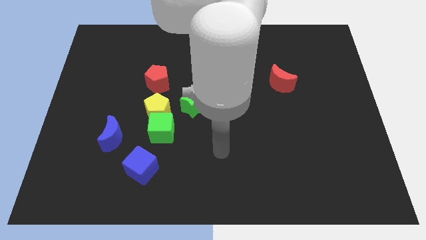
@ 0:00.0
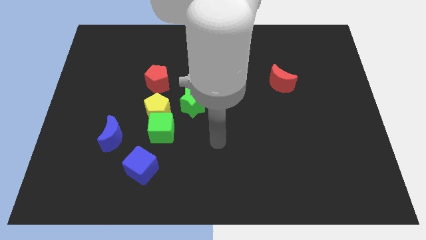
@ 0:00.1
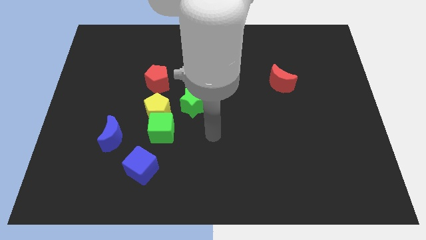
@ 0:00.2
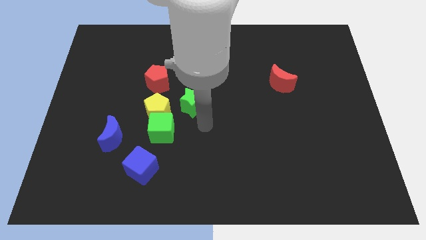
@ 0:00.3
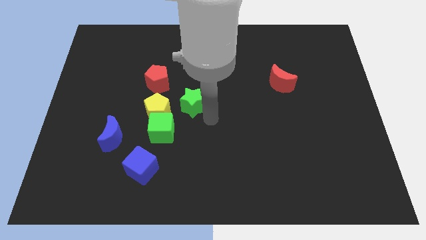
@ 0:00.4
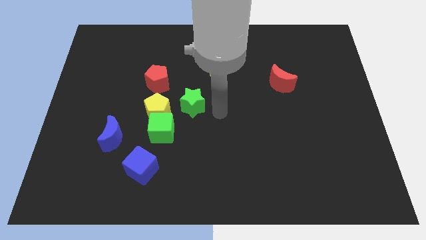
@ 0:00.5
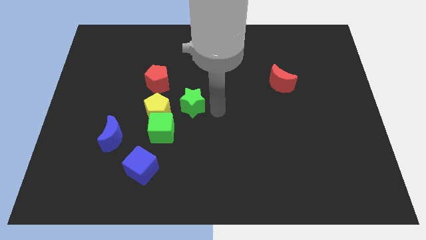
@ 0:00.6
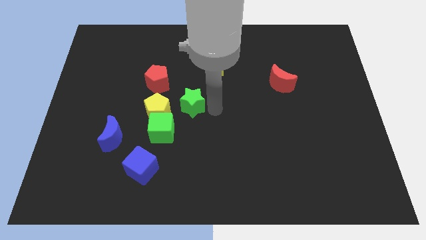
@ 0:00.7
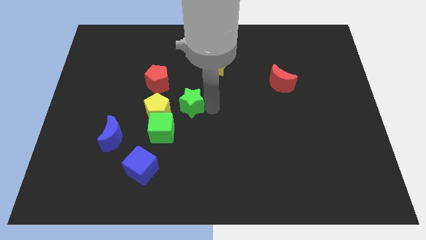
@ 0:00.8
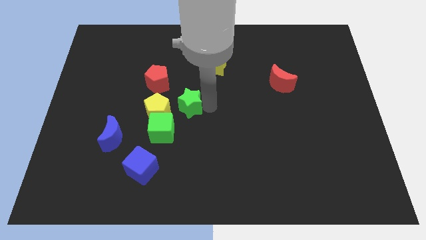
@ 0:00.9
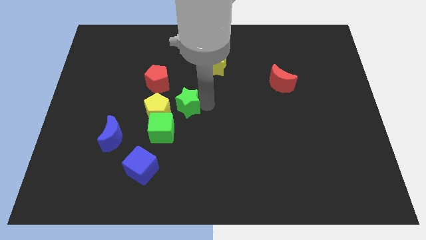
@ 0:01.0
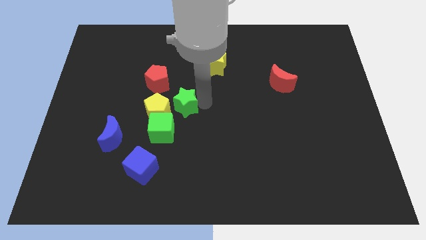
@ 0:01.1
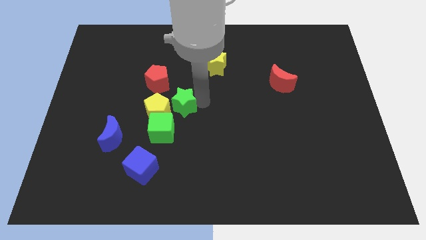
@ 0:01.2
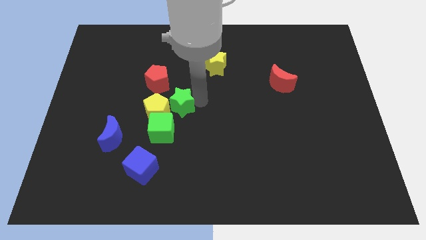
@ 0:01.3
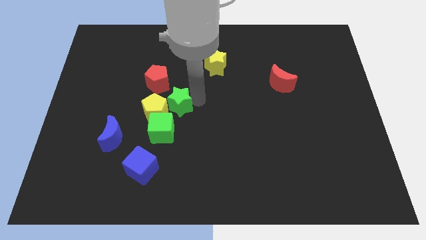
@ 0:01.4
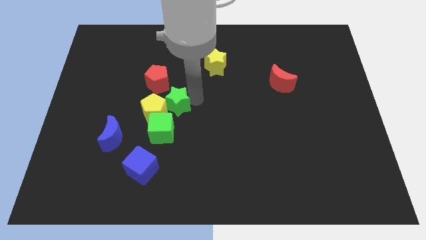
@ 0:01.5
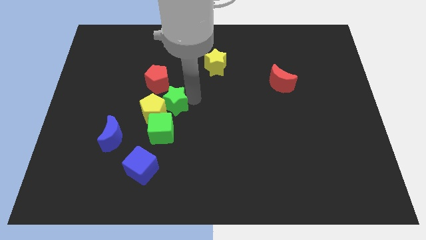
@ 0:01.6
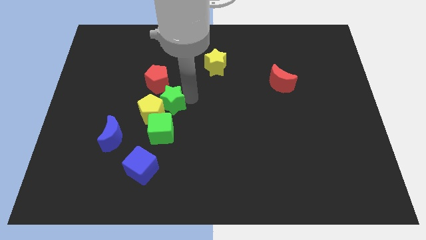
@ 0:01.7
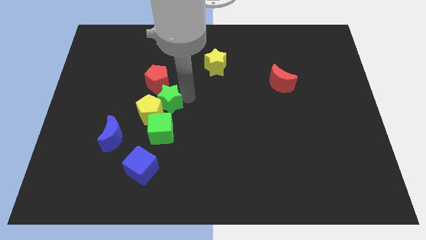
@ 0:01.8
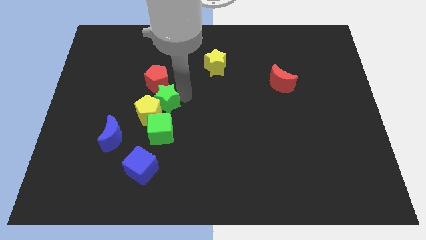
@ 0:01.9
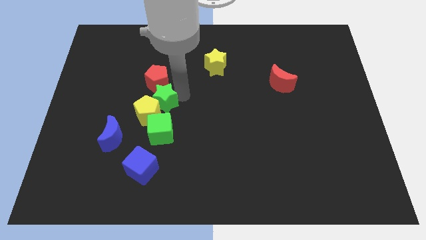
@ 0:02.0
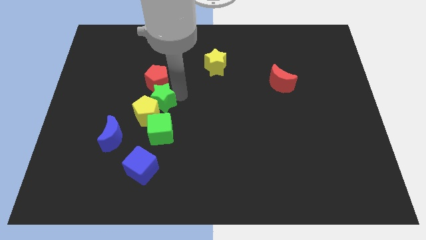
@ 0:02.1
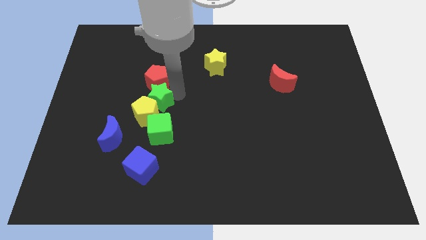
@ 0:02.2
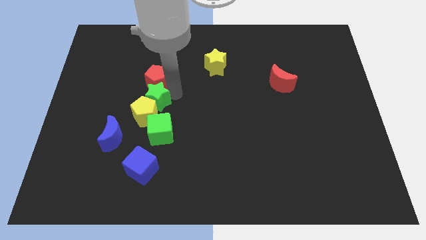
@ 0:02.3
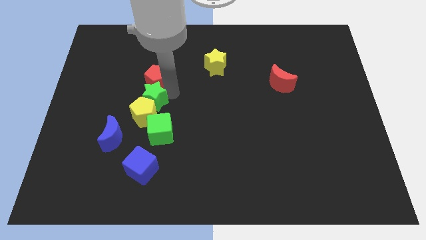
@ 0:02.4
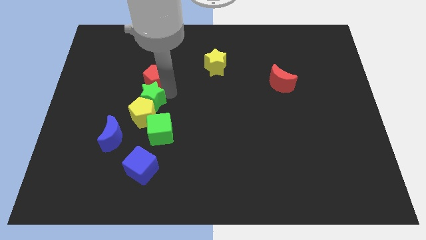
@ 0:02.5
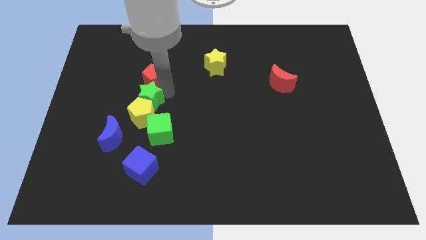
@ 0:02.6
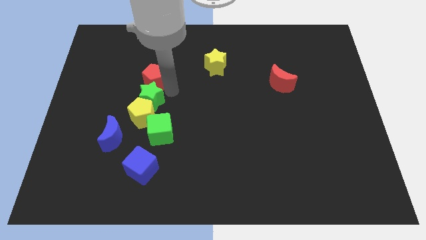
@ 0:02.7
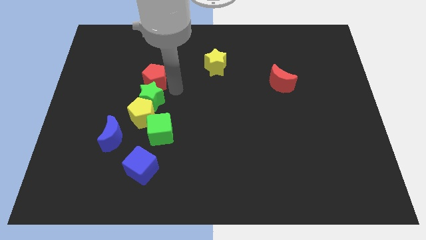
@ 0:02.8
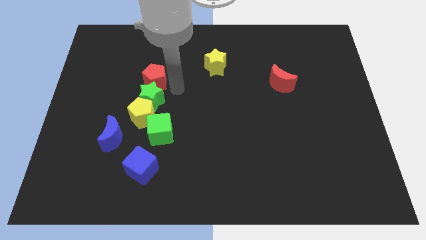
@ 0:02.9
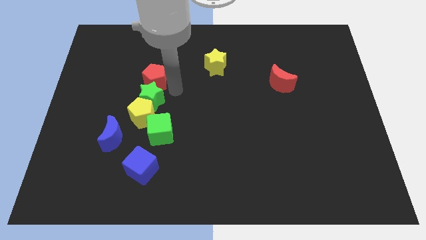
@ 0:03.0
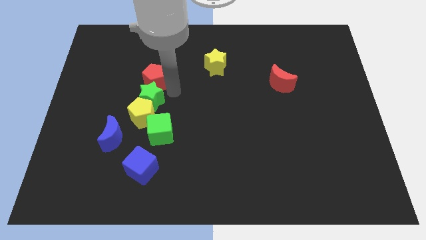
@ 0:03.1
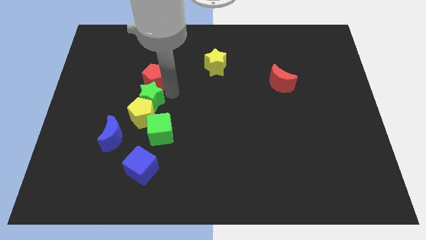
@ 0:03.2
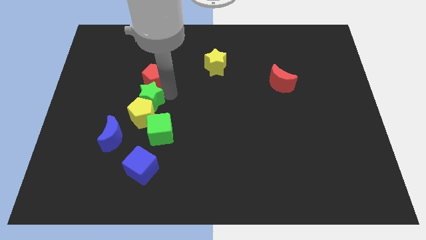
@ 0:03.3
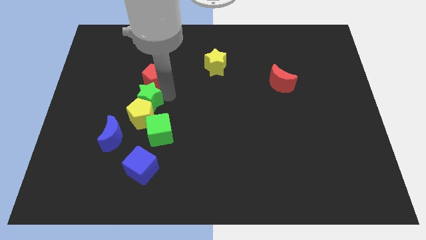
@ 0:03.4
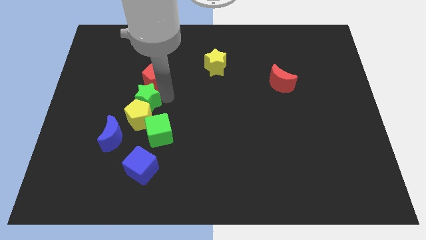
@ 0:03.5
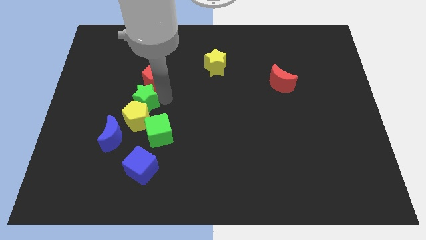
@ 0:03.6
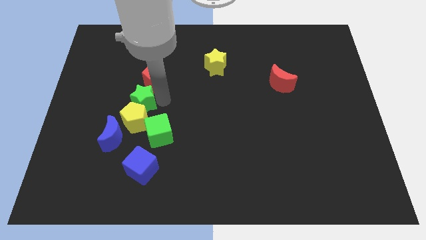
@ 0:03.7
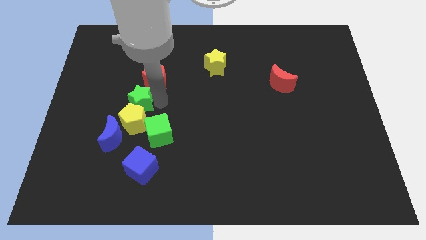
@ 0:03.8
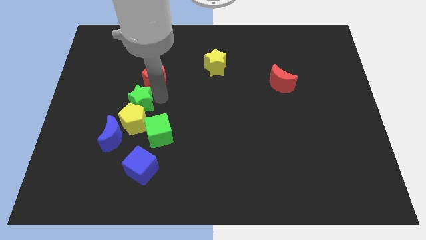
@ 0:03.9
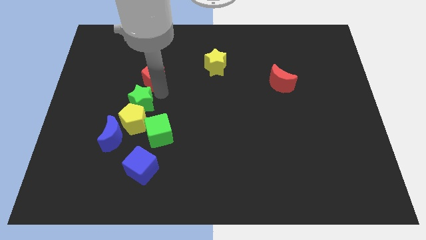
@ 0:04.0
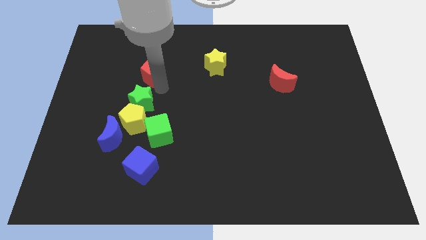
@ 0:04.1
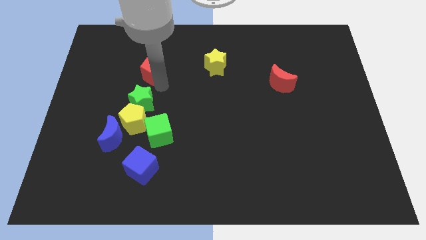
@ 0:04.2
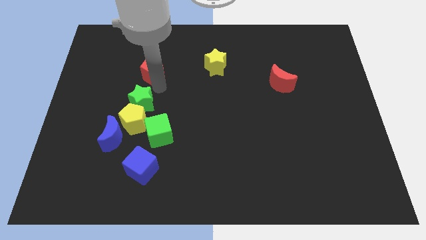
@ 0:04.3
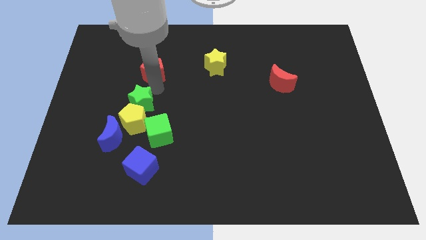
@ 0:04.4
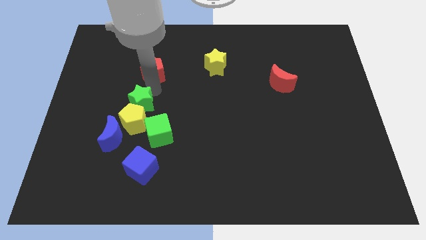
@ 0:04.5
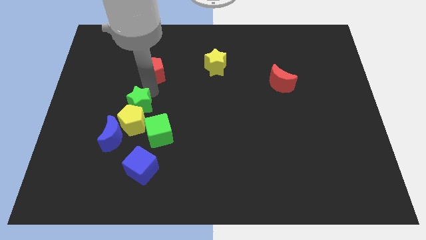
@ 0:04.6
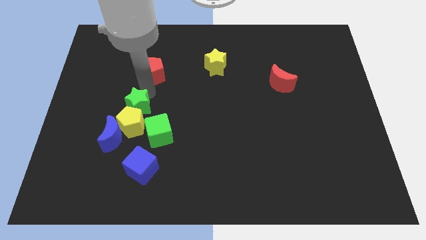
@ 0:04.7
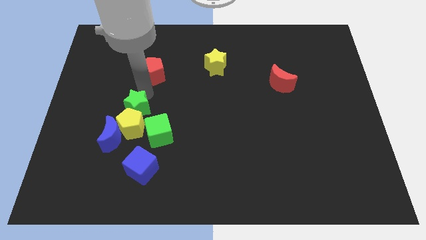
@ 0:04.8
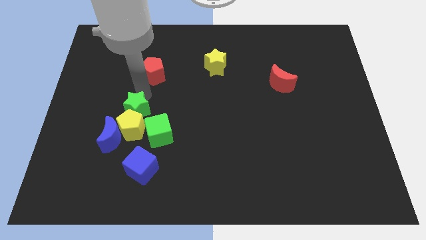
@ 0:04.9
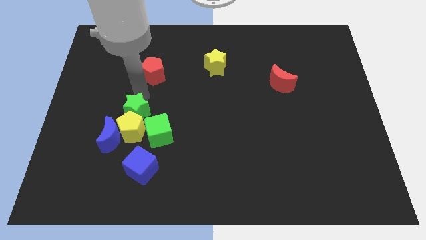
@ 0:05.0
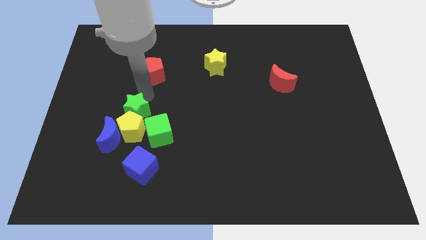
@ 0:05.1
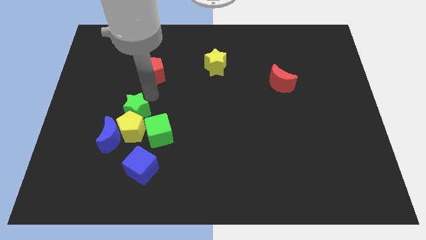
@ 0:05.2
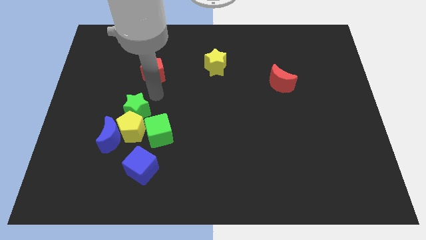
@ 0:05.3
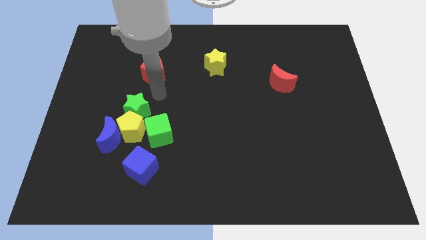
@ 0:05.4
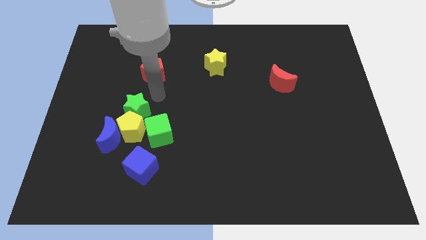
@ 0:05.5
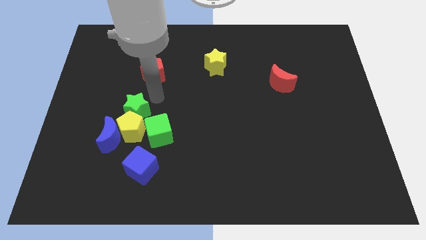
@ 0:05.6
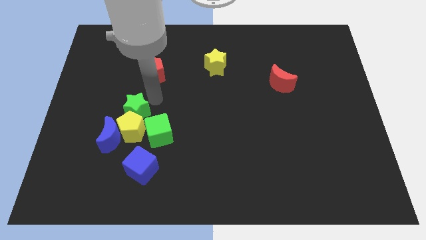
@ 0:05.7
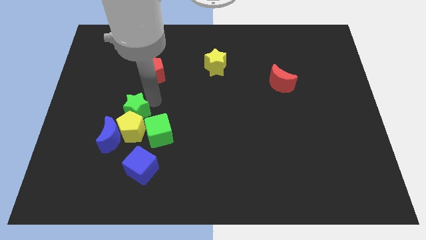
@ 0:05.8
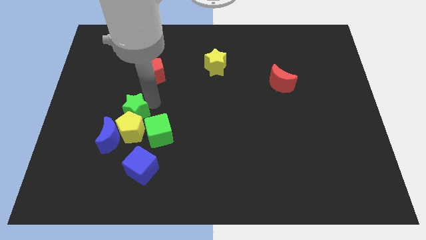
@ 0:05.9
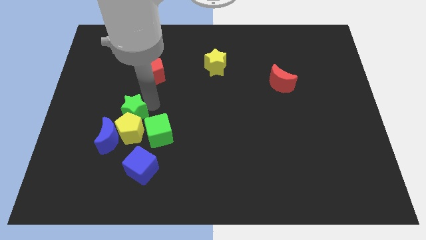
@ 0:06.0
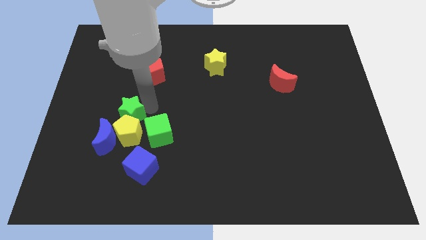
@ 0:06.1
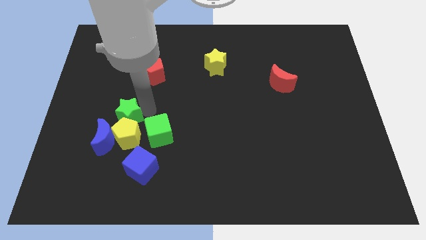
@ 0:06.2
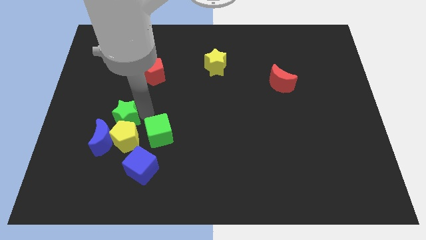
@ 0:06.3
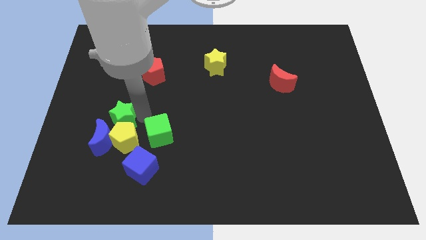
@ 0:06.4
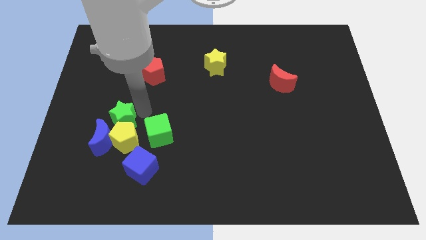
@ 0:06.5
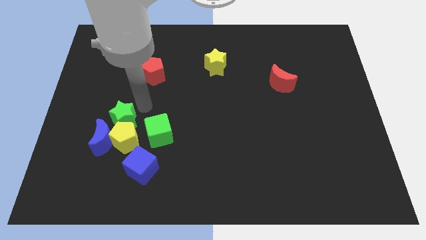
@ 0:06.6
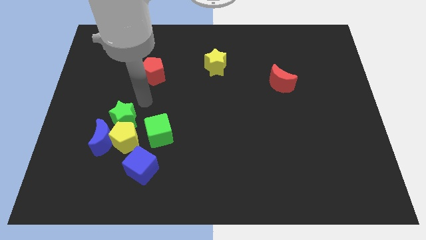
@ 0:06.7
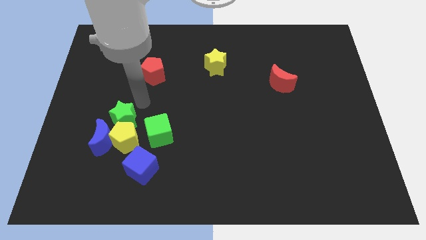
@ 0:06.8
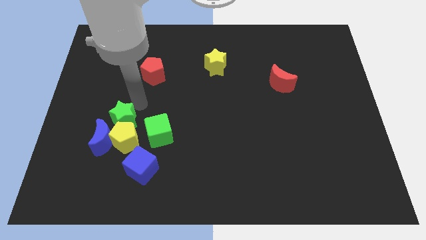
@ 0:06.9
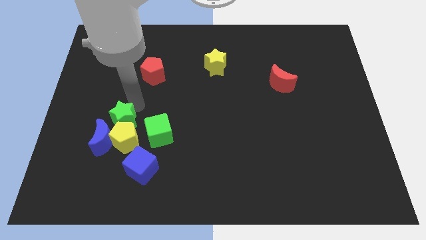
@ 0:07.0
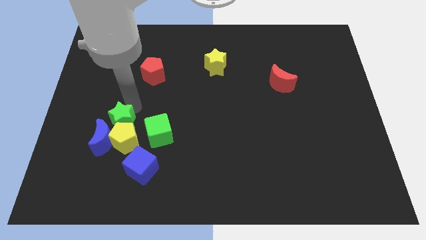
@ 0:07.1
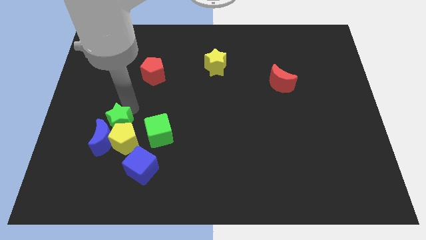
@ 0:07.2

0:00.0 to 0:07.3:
slide the green star next to the blue moon
